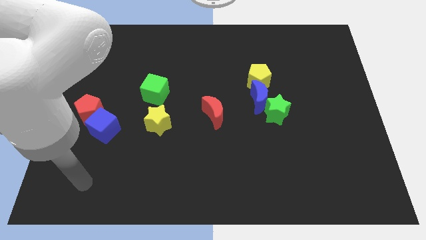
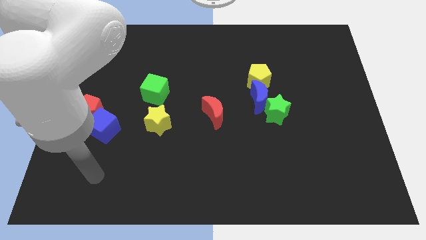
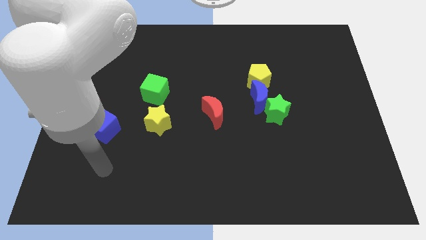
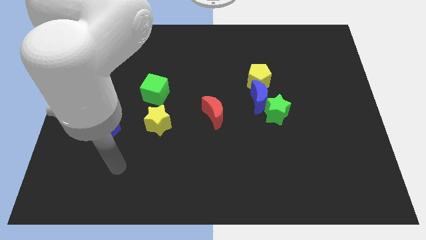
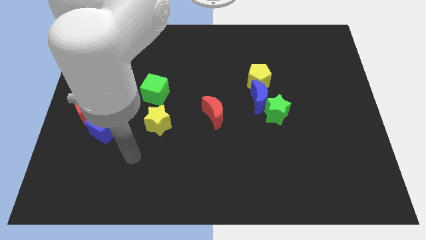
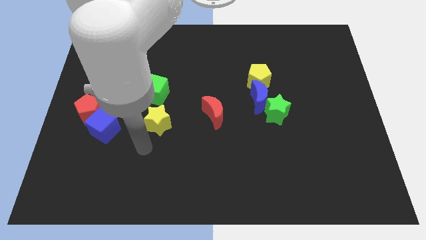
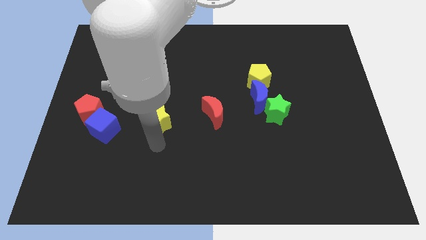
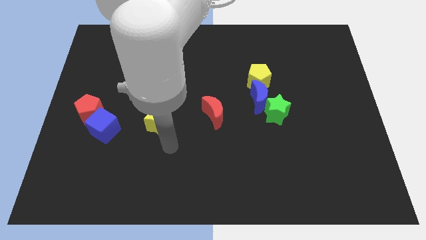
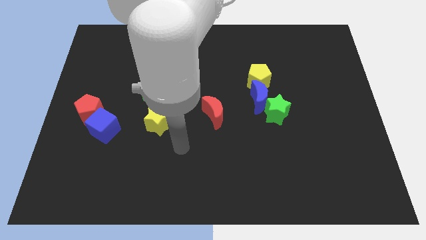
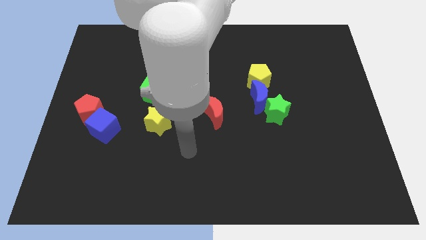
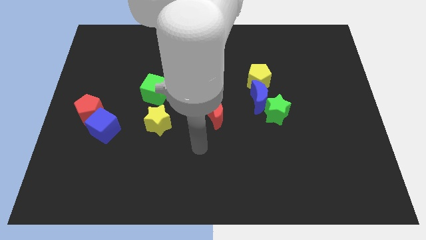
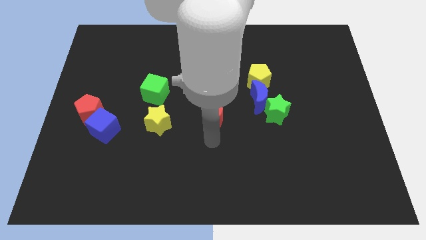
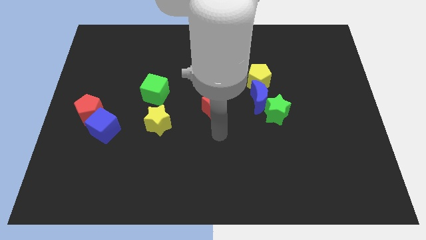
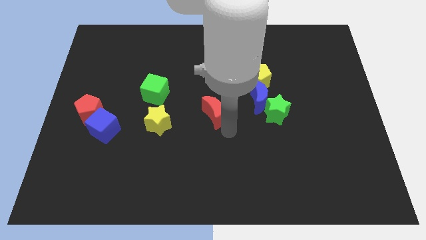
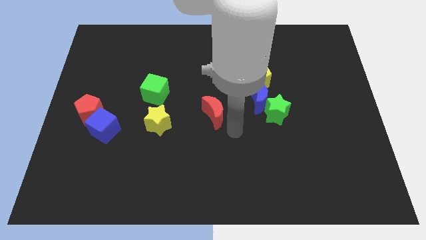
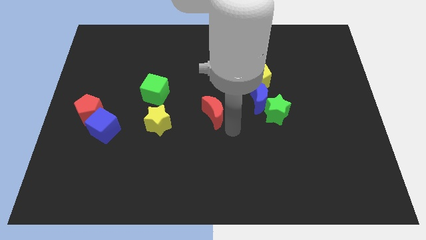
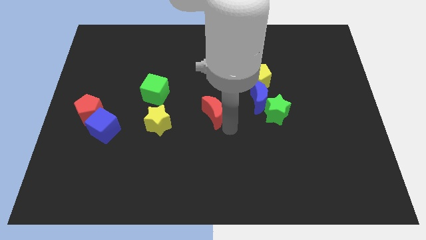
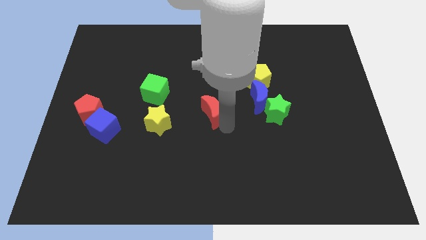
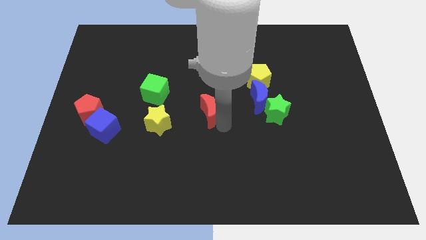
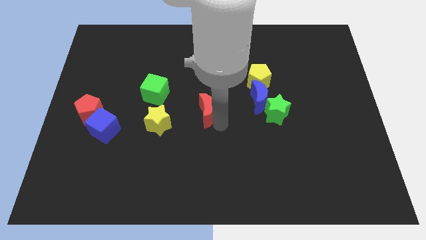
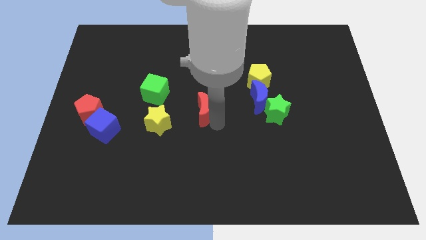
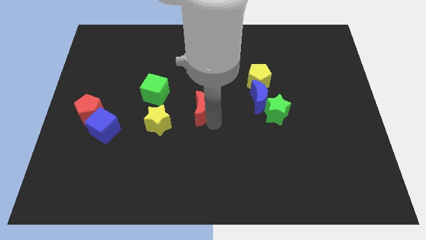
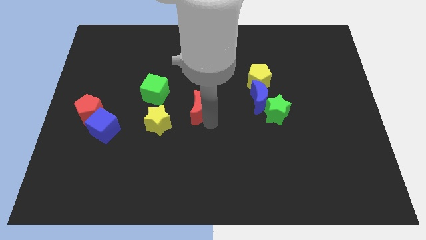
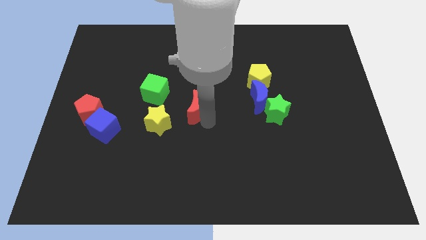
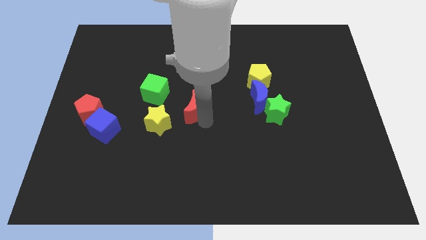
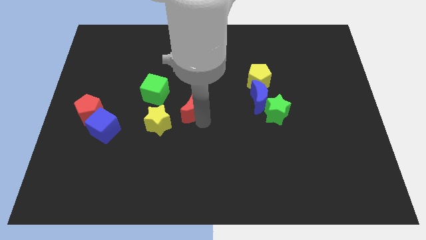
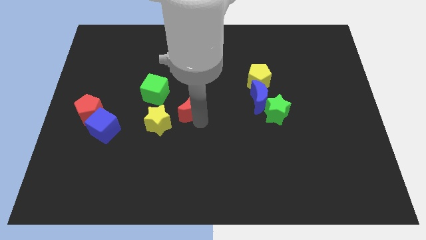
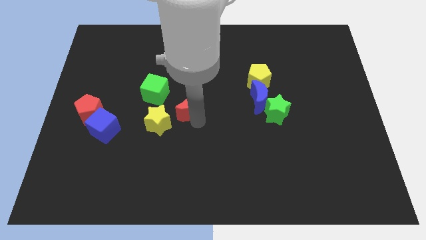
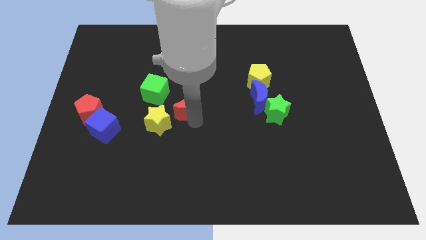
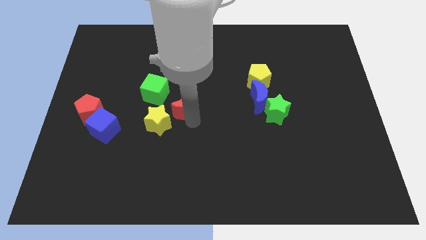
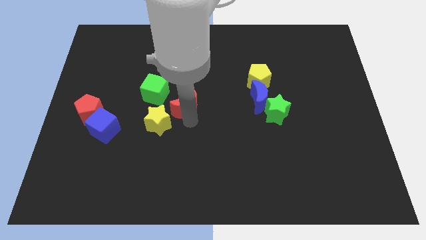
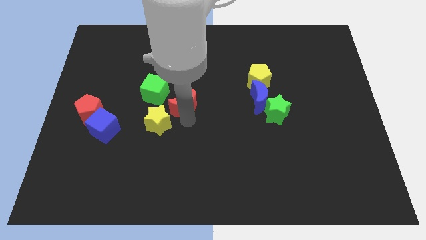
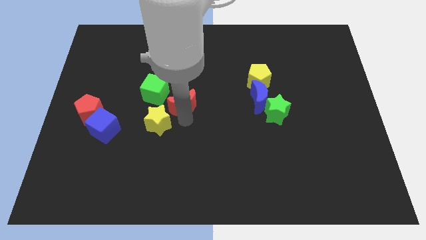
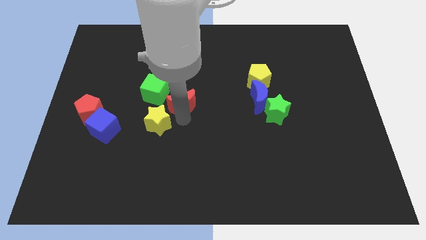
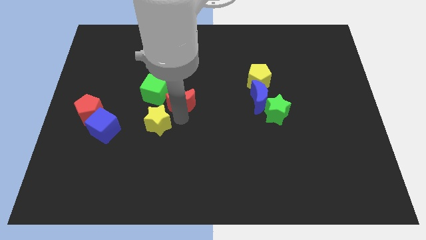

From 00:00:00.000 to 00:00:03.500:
slide the red moon upwards and to the left a bit

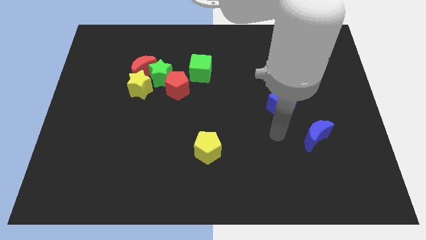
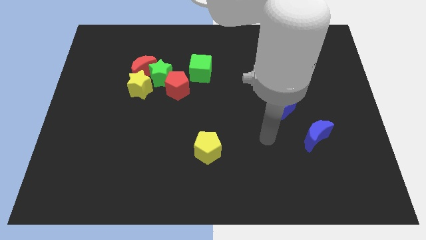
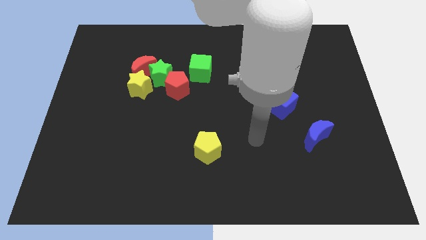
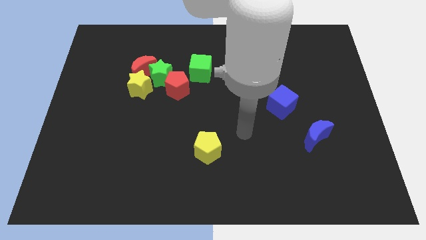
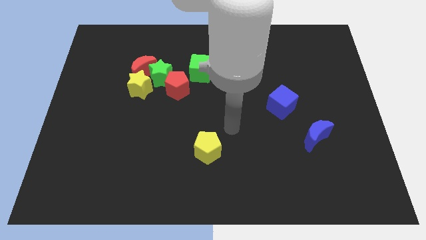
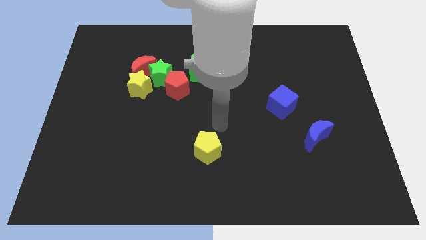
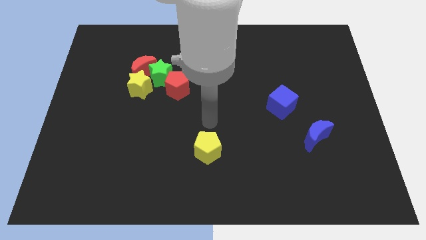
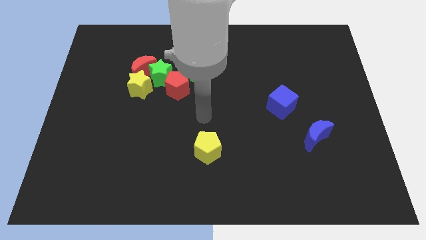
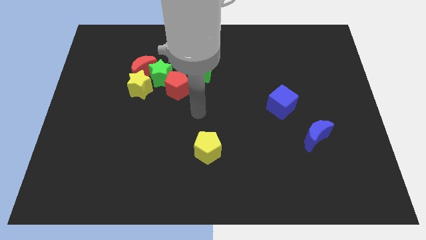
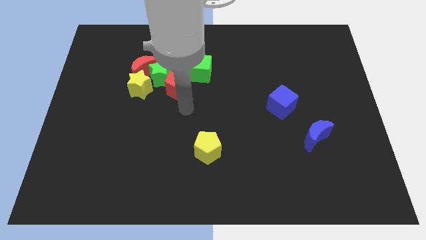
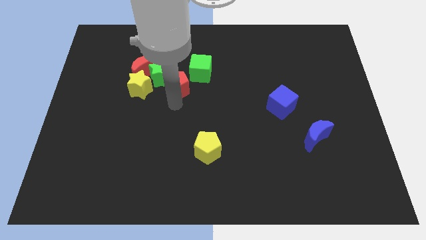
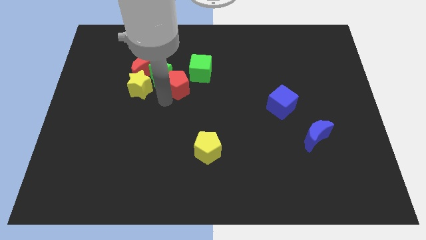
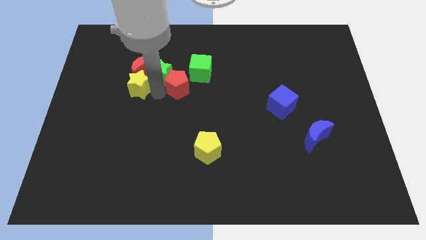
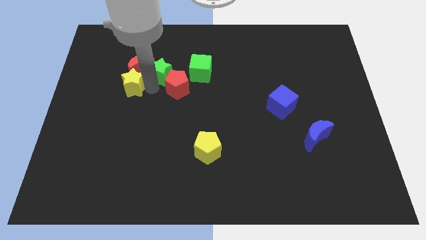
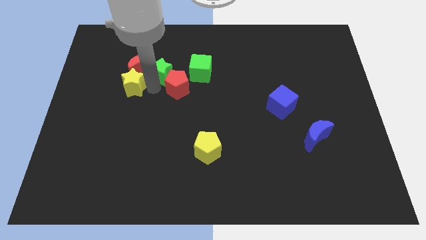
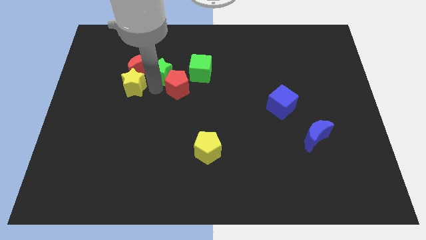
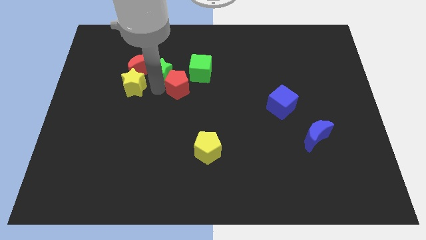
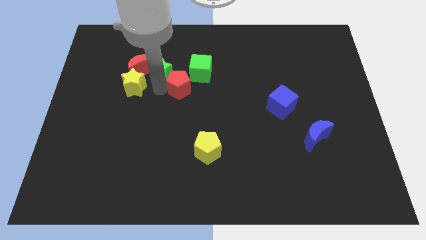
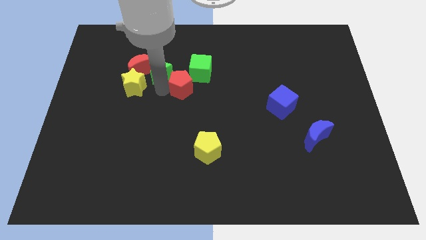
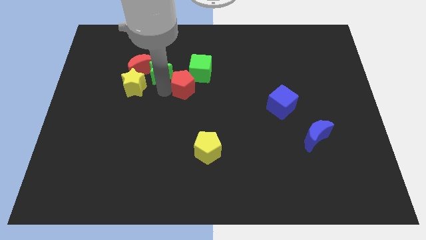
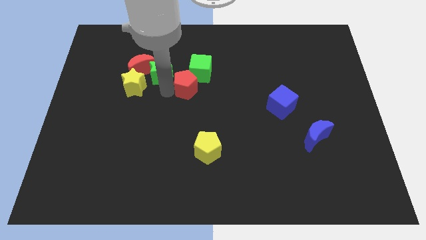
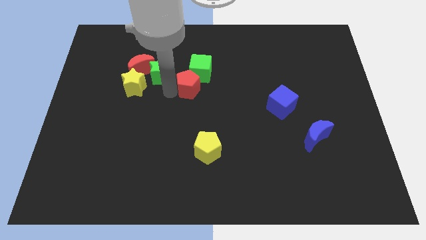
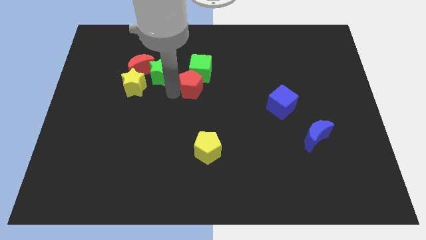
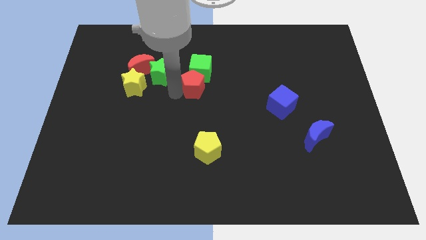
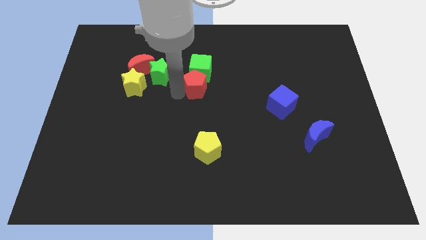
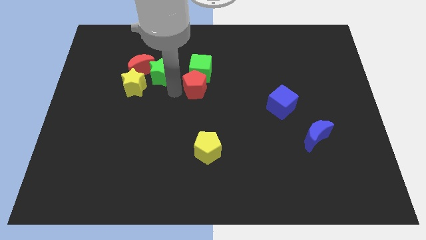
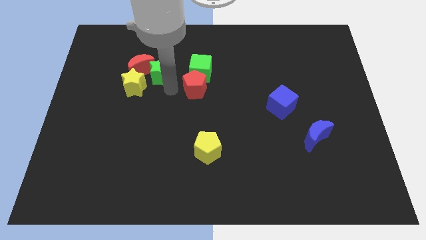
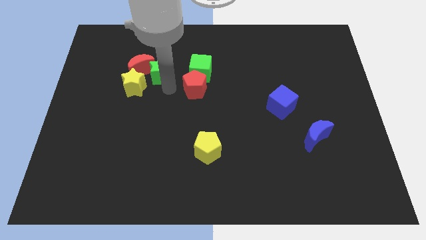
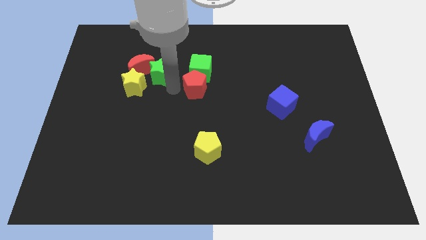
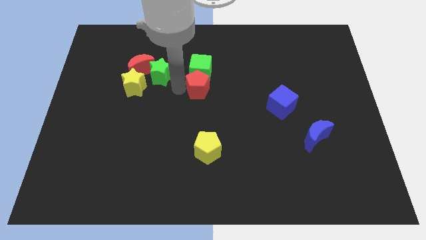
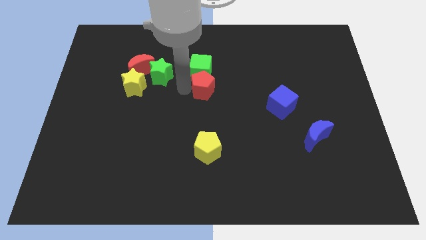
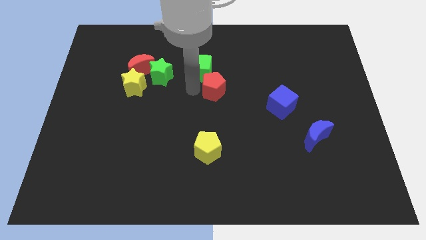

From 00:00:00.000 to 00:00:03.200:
move the red pentagon right a bit

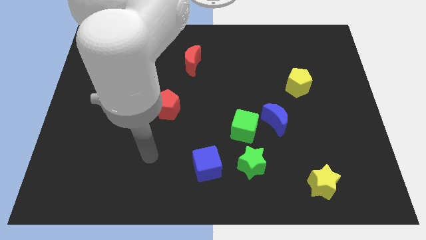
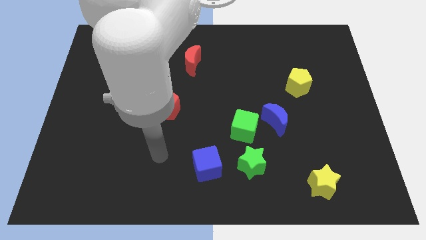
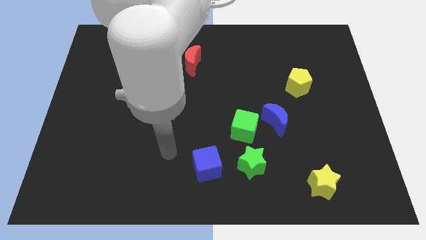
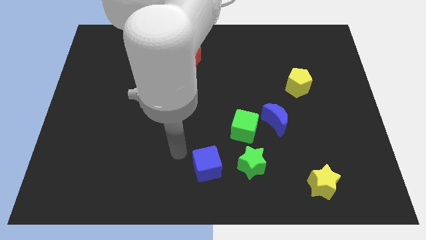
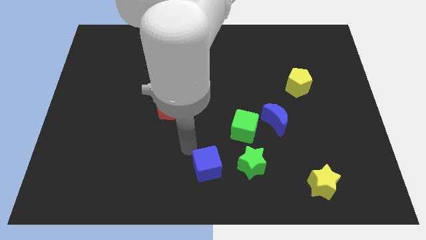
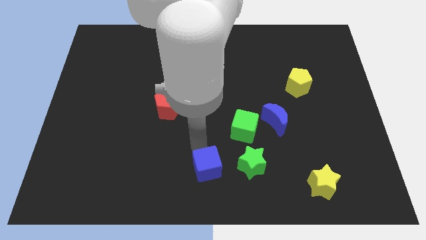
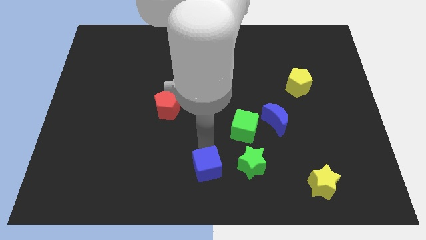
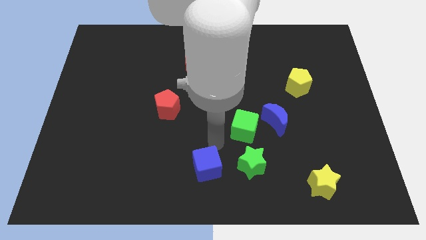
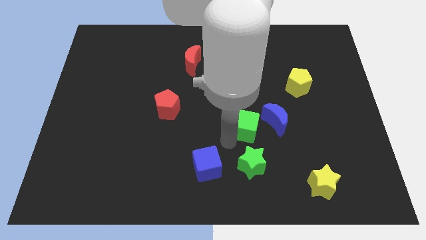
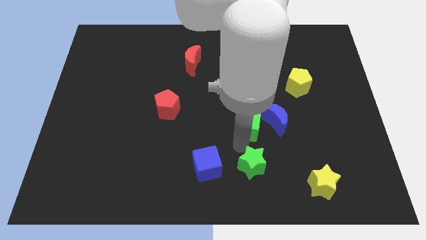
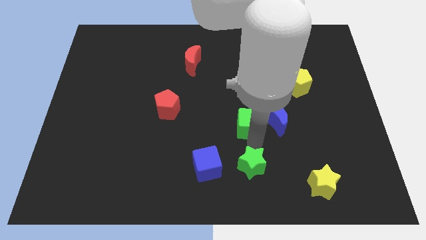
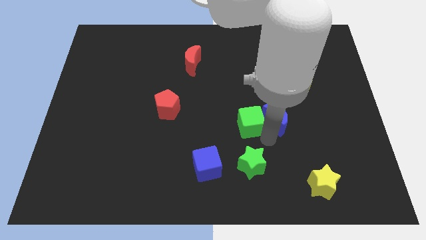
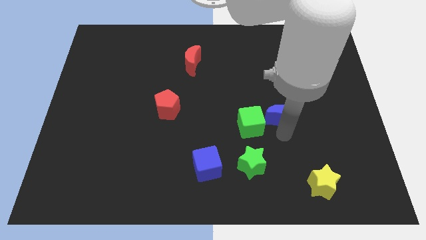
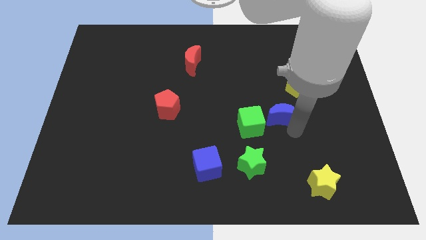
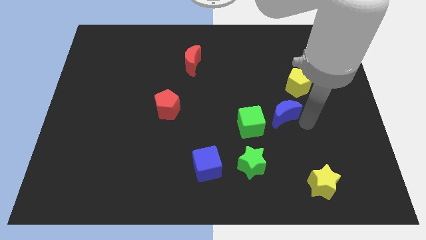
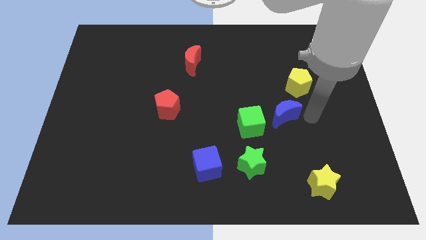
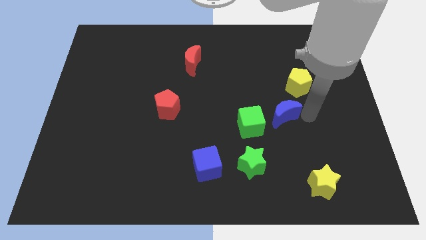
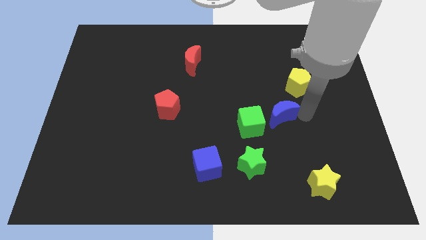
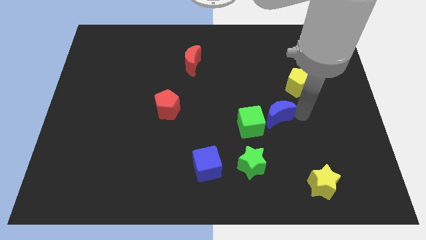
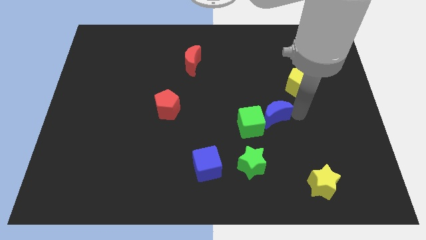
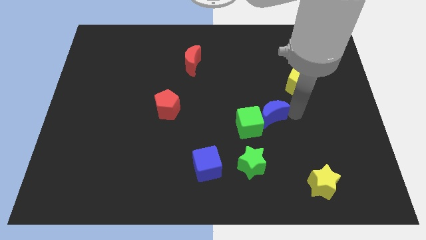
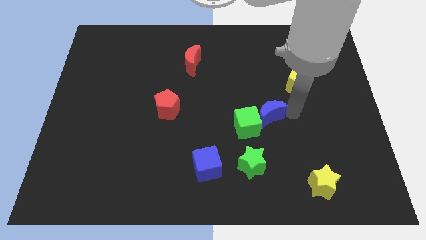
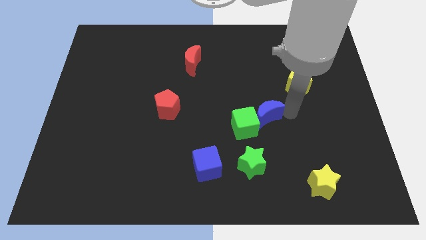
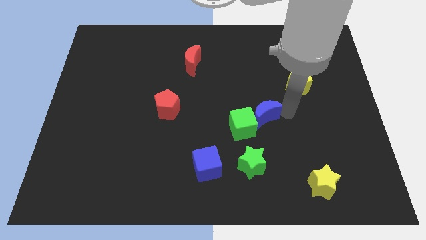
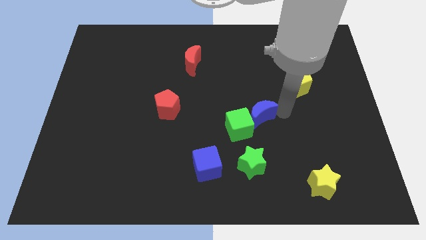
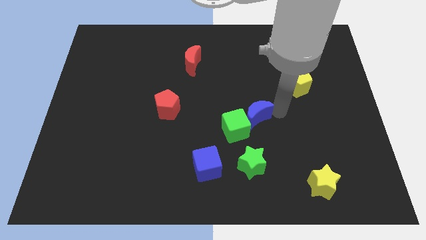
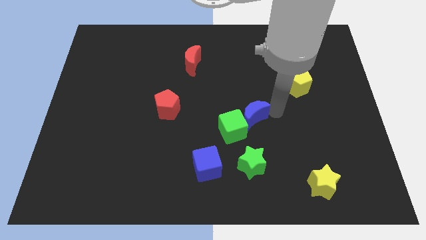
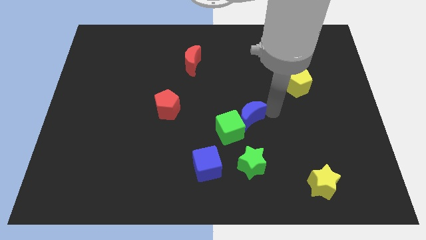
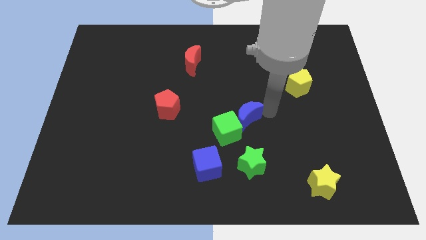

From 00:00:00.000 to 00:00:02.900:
move the blue moon slightly left
